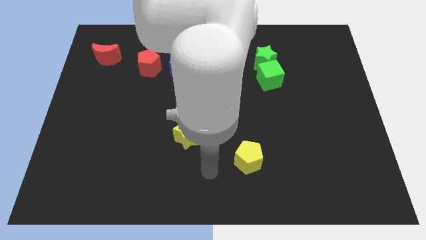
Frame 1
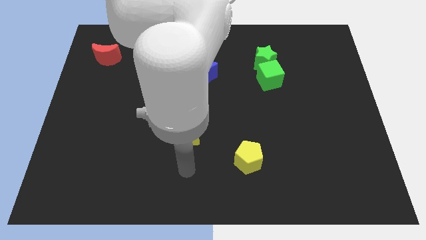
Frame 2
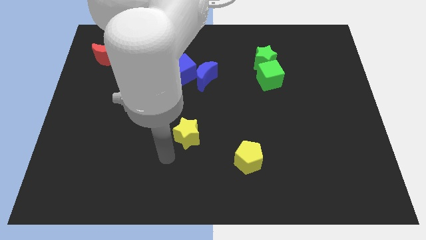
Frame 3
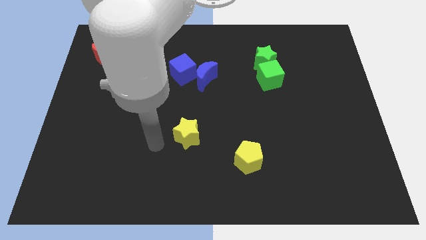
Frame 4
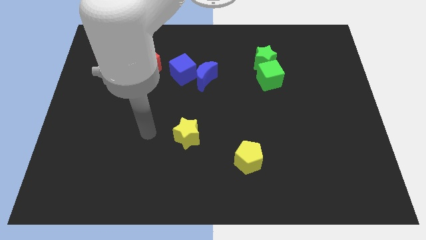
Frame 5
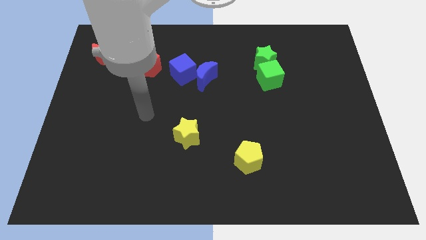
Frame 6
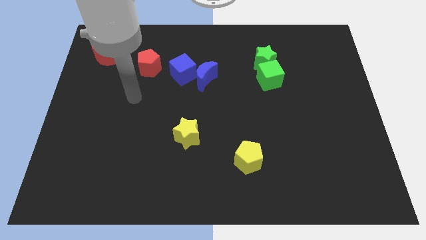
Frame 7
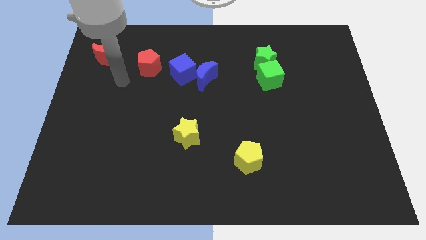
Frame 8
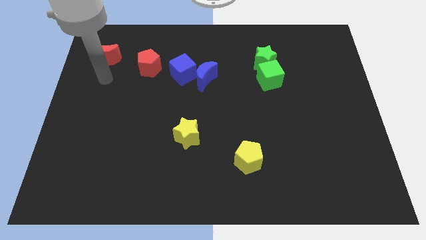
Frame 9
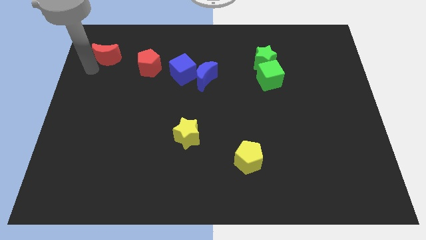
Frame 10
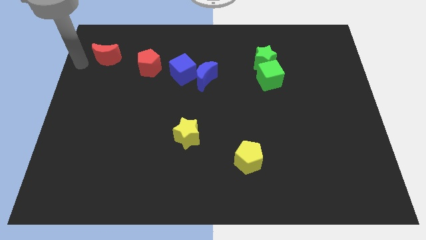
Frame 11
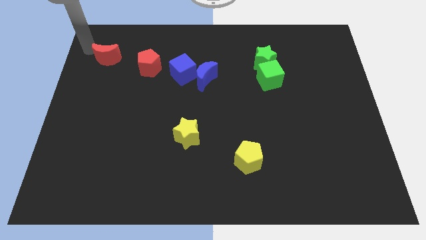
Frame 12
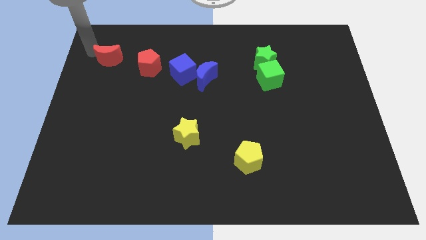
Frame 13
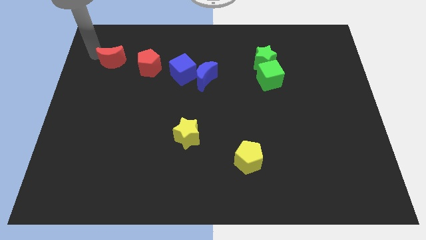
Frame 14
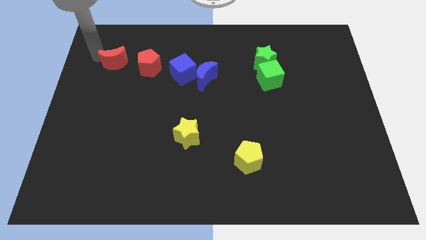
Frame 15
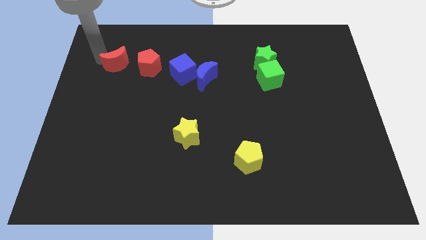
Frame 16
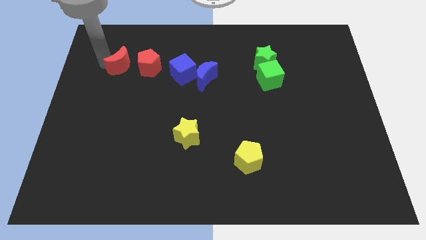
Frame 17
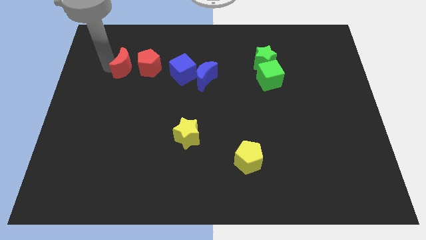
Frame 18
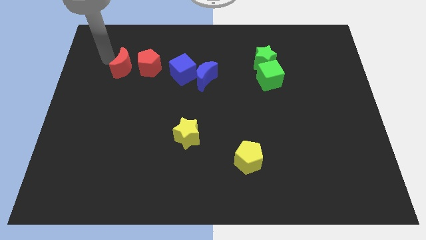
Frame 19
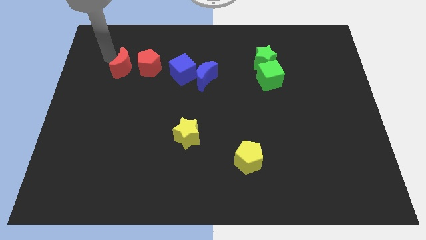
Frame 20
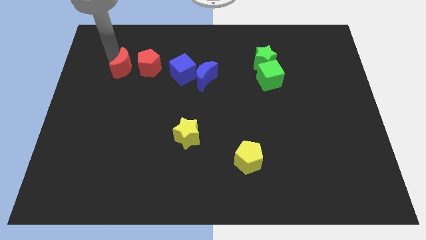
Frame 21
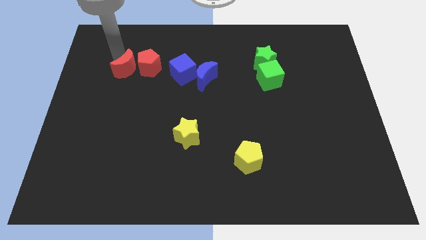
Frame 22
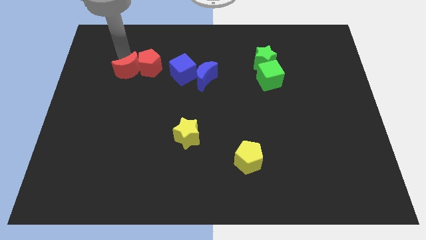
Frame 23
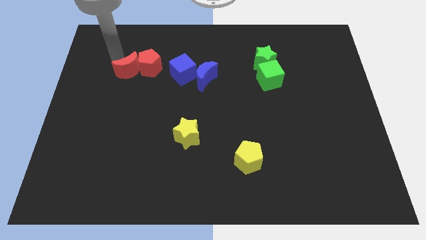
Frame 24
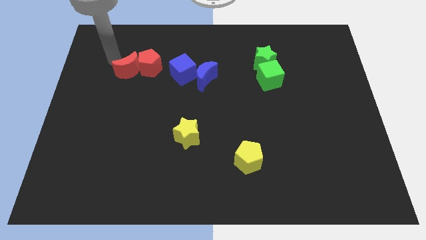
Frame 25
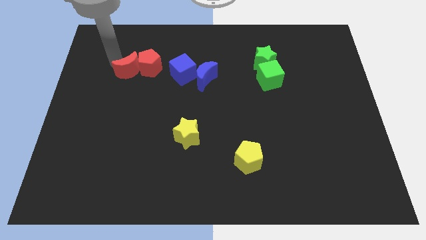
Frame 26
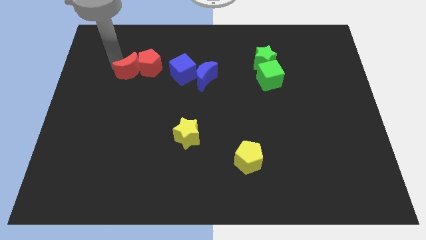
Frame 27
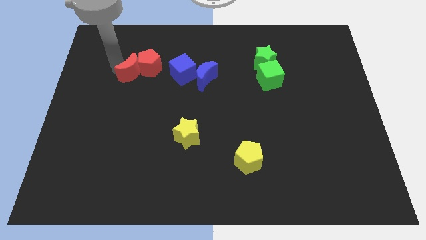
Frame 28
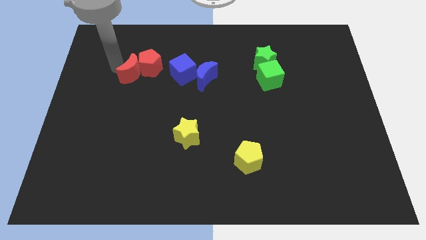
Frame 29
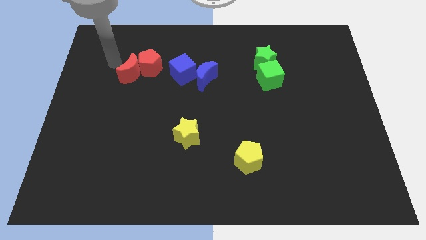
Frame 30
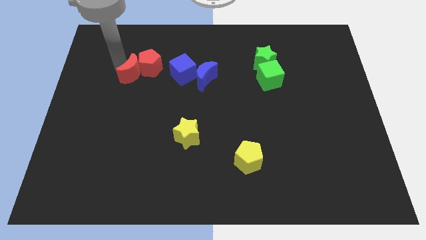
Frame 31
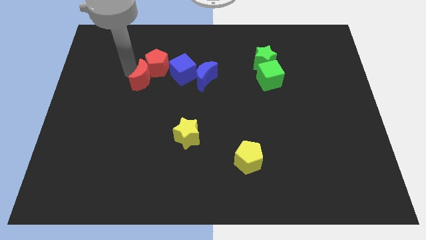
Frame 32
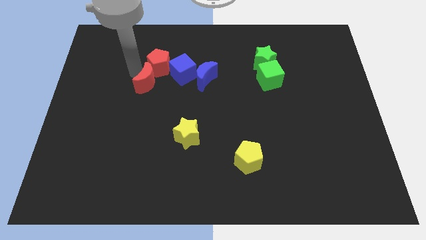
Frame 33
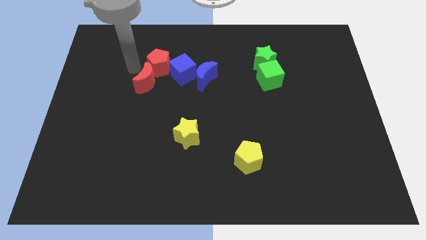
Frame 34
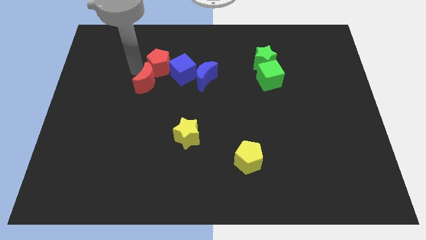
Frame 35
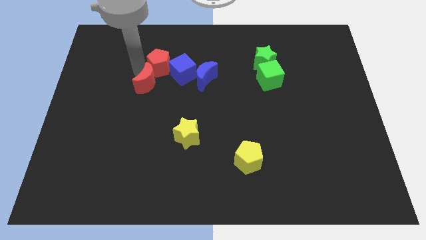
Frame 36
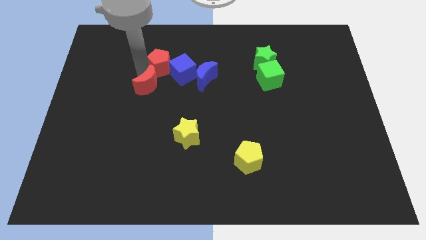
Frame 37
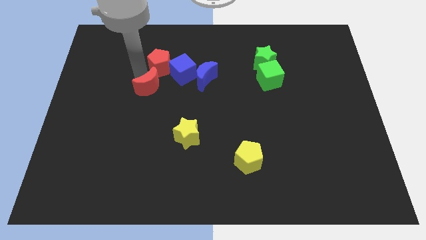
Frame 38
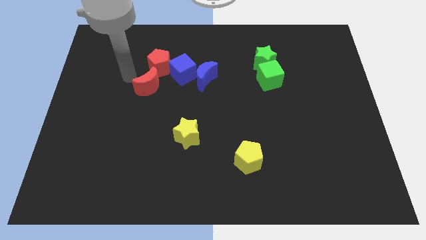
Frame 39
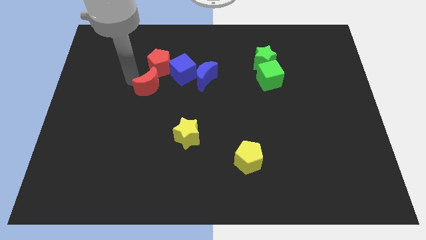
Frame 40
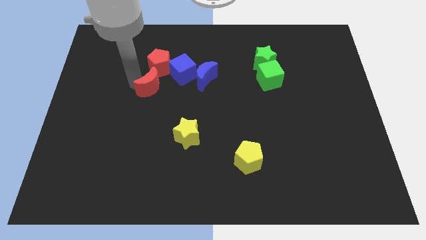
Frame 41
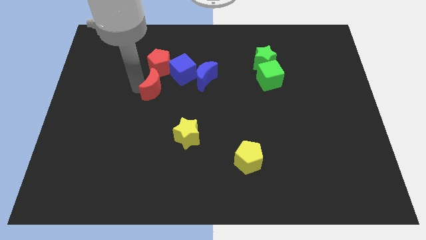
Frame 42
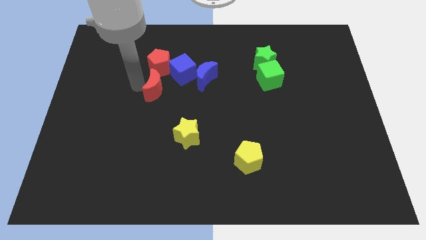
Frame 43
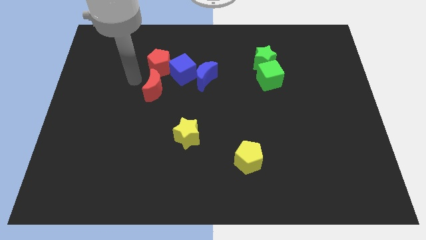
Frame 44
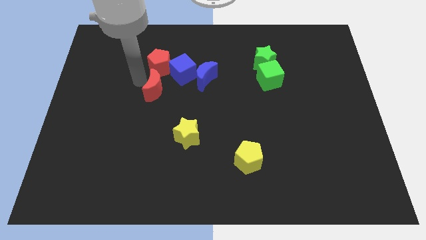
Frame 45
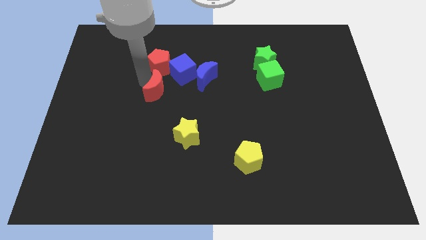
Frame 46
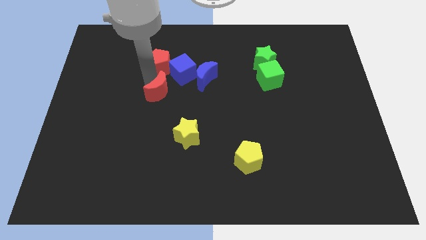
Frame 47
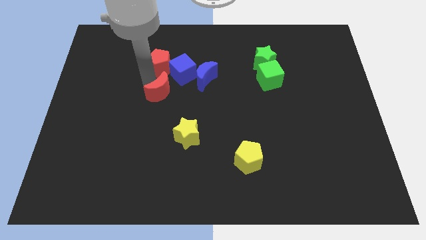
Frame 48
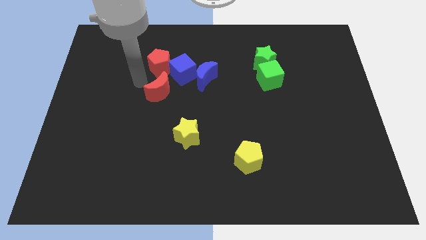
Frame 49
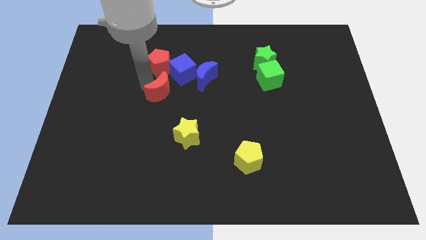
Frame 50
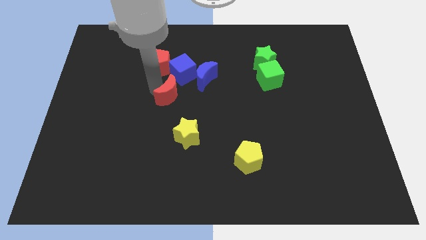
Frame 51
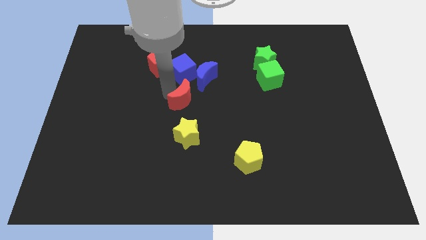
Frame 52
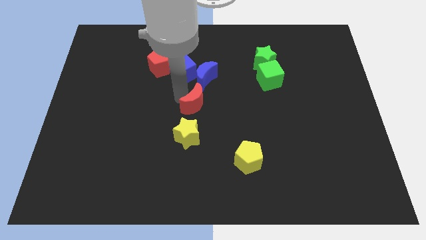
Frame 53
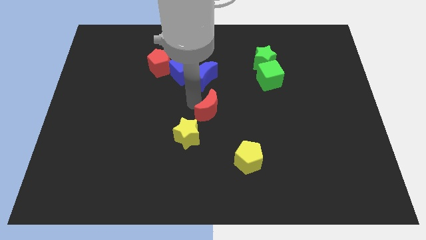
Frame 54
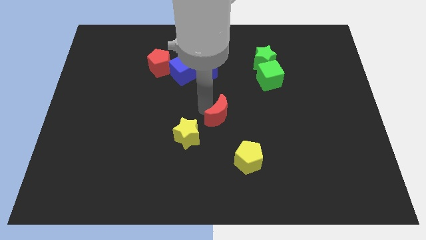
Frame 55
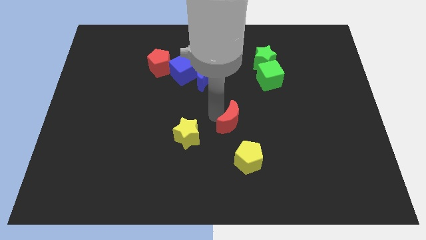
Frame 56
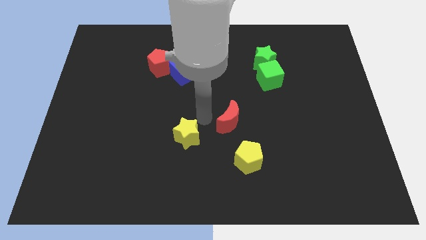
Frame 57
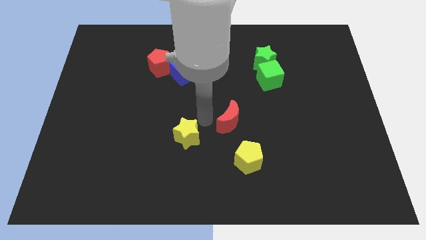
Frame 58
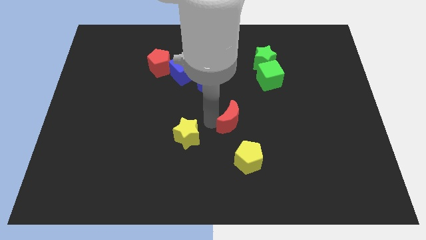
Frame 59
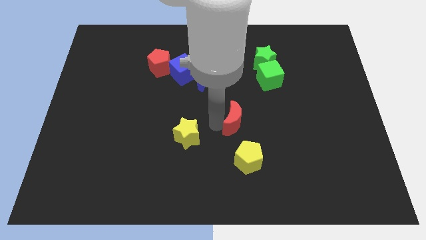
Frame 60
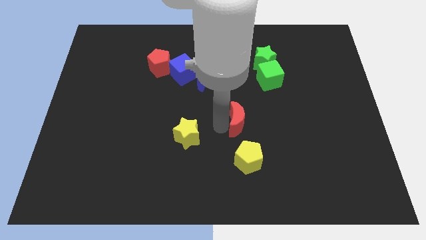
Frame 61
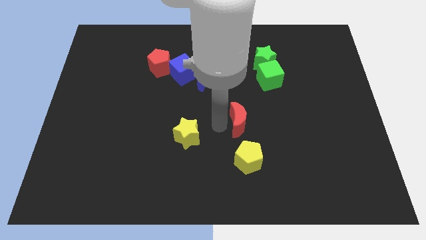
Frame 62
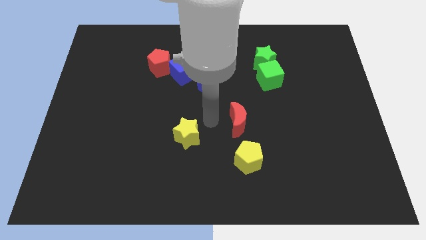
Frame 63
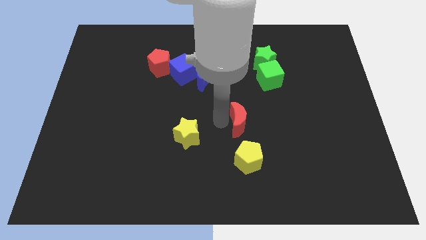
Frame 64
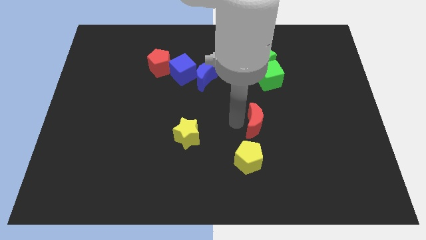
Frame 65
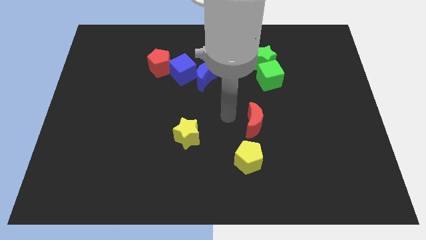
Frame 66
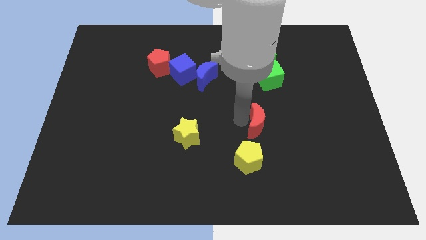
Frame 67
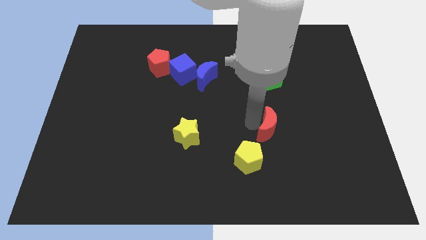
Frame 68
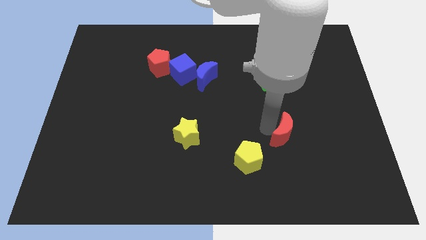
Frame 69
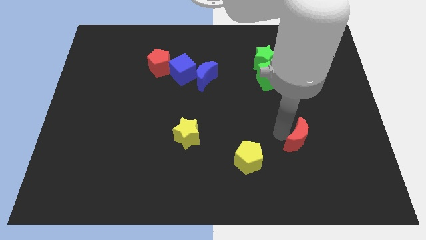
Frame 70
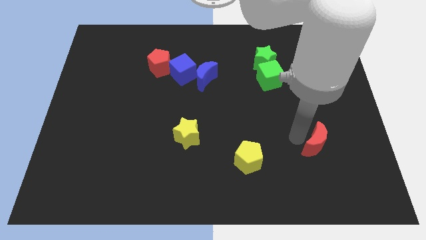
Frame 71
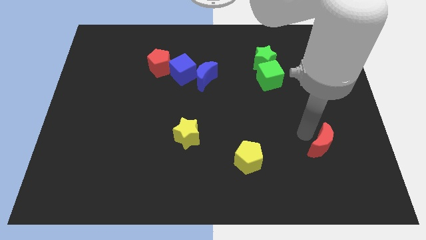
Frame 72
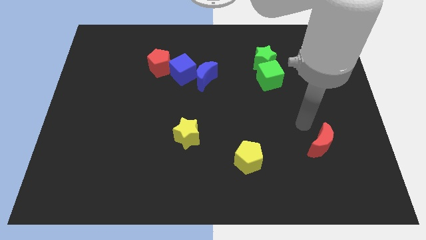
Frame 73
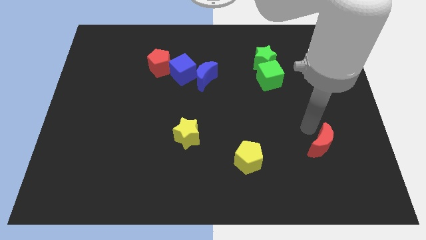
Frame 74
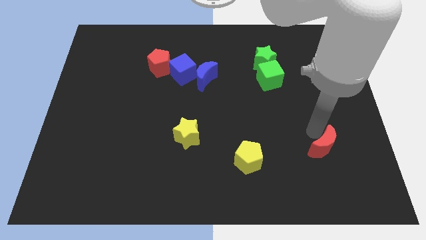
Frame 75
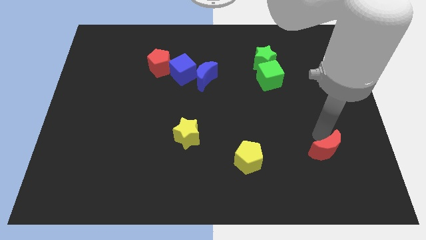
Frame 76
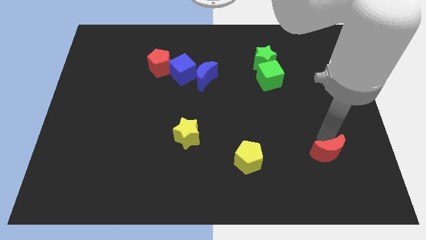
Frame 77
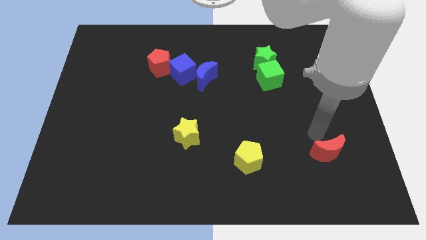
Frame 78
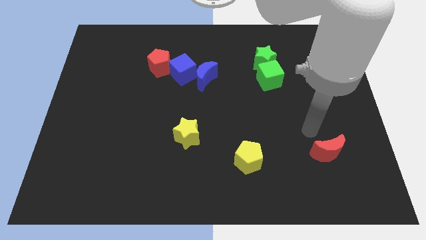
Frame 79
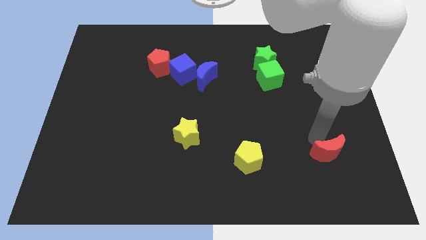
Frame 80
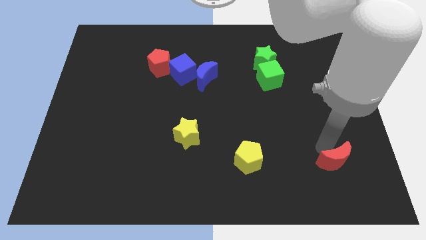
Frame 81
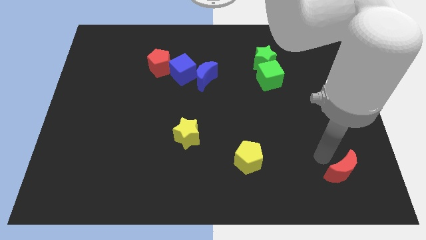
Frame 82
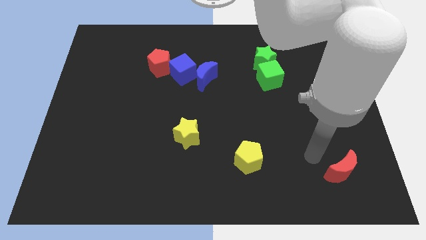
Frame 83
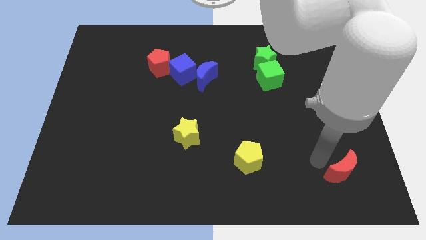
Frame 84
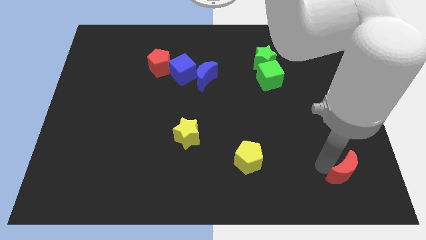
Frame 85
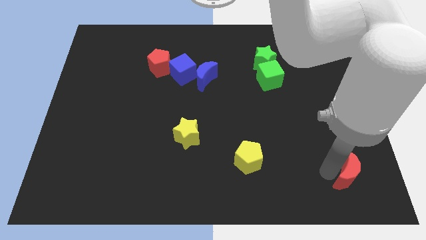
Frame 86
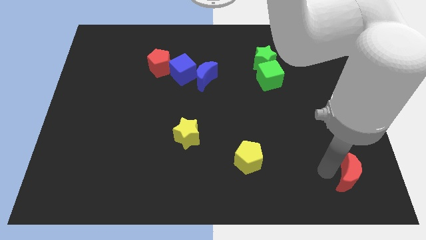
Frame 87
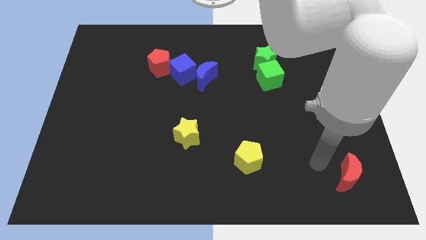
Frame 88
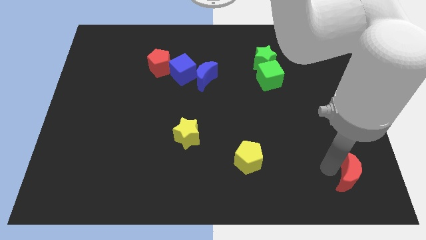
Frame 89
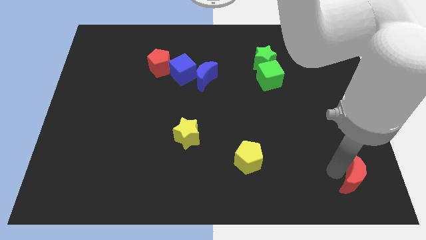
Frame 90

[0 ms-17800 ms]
push the red moon to the bottom right of the board
